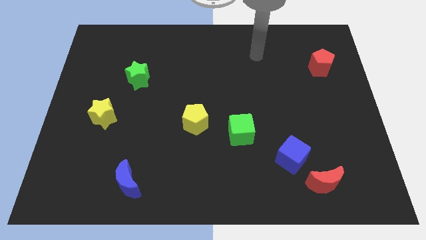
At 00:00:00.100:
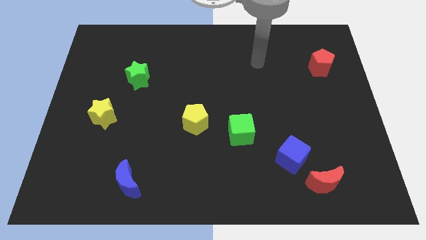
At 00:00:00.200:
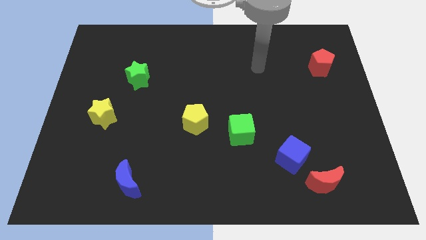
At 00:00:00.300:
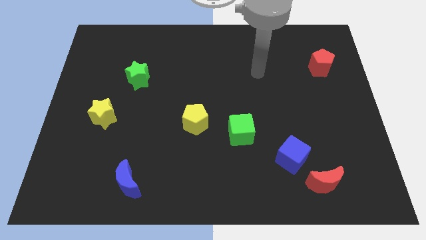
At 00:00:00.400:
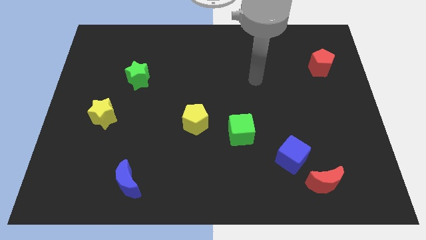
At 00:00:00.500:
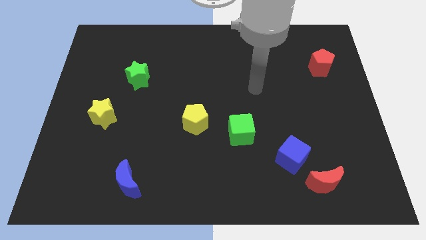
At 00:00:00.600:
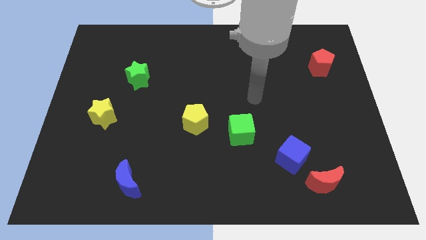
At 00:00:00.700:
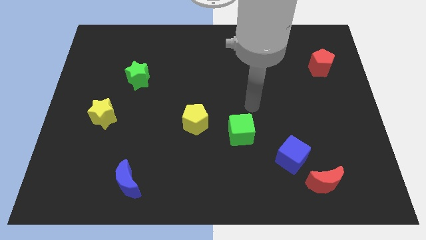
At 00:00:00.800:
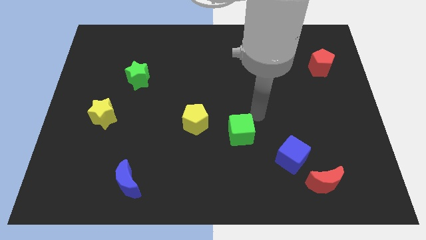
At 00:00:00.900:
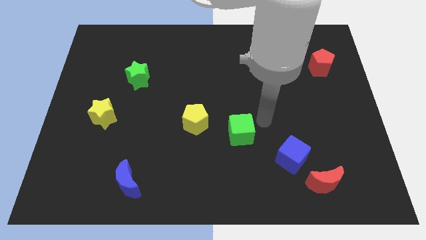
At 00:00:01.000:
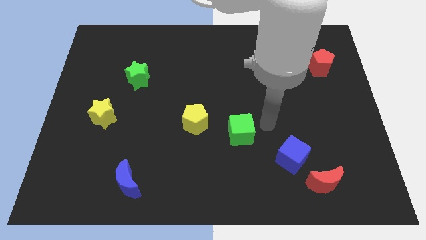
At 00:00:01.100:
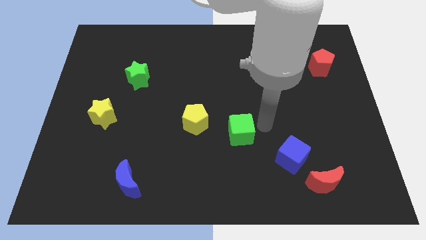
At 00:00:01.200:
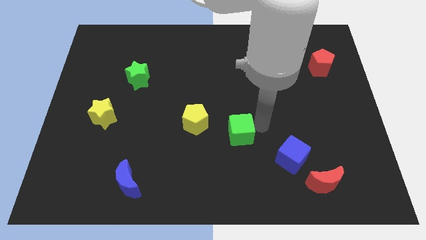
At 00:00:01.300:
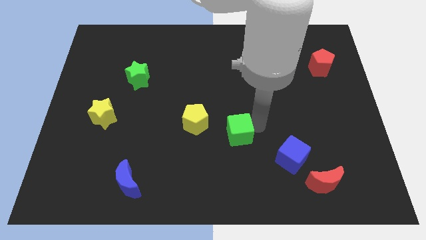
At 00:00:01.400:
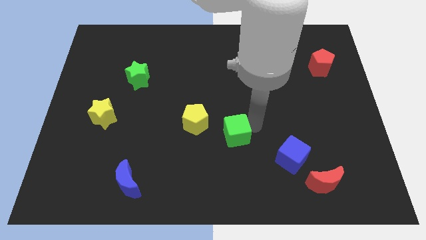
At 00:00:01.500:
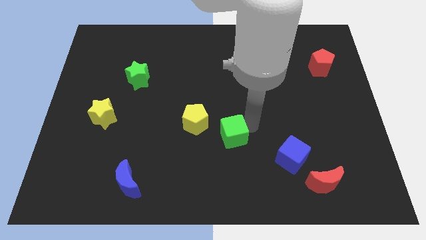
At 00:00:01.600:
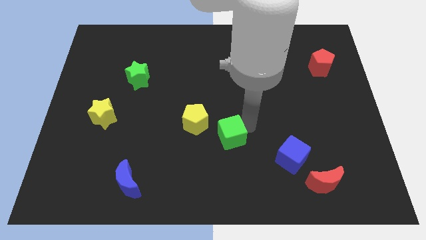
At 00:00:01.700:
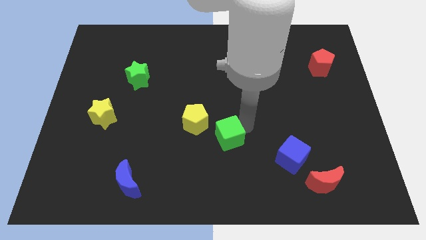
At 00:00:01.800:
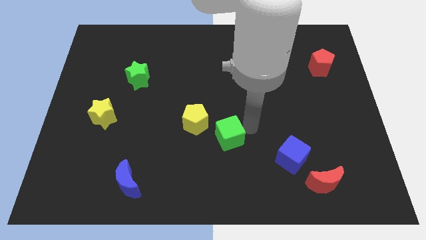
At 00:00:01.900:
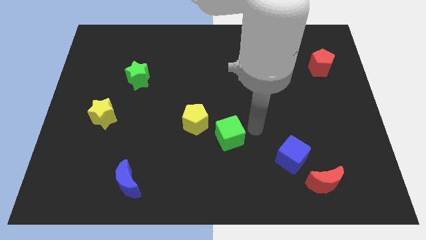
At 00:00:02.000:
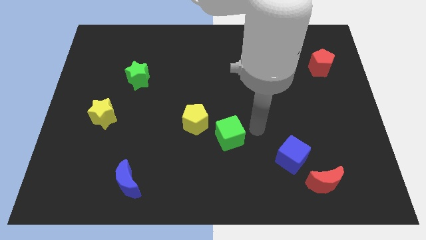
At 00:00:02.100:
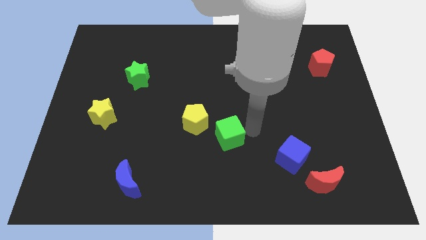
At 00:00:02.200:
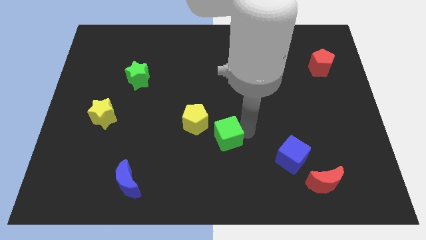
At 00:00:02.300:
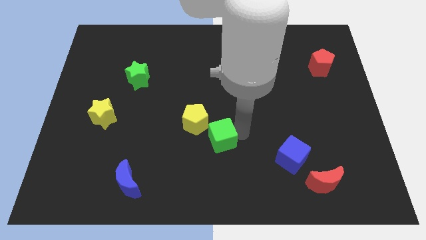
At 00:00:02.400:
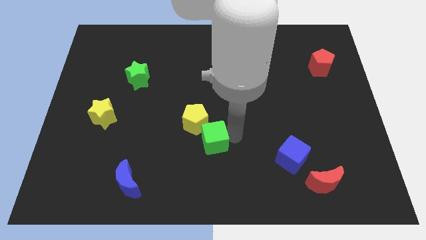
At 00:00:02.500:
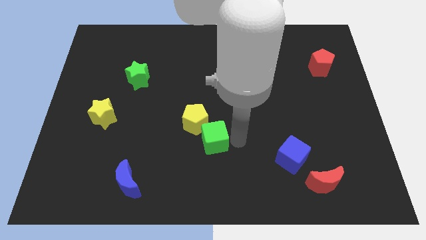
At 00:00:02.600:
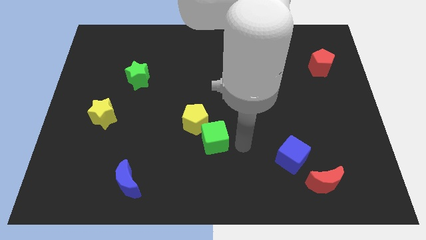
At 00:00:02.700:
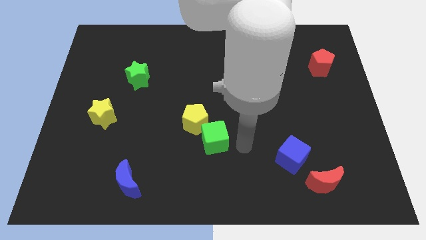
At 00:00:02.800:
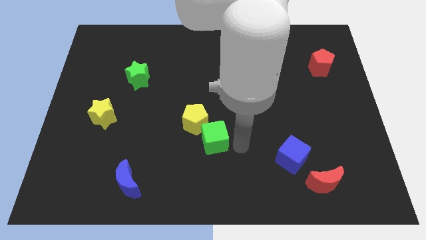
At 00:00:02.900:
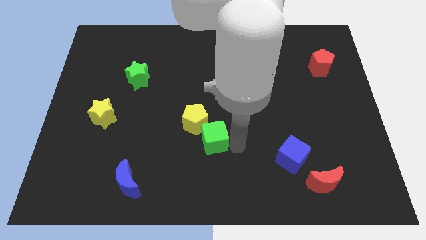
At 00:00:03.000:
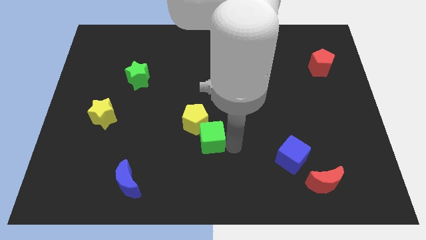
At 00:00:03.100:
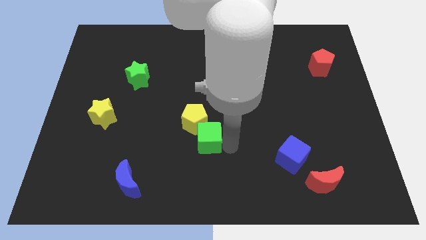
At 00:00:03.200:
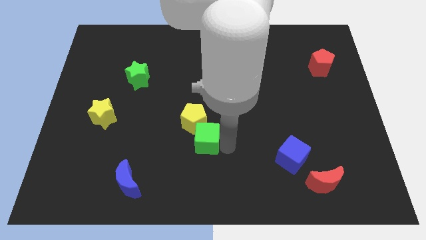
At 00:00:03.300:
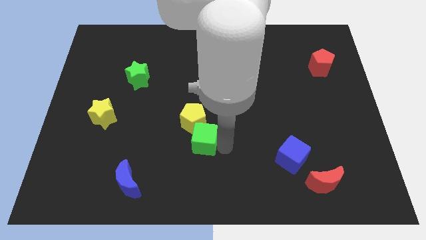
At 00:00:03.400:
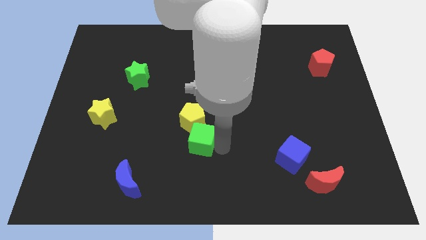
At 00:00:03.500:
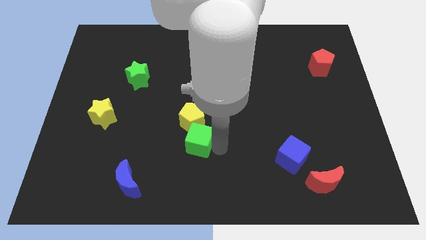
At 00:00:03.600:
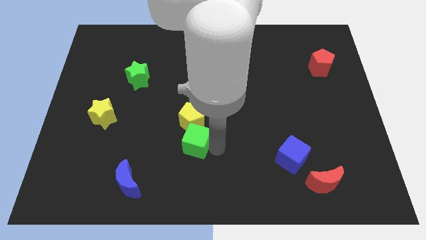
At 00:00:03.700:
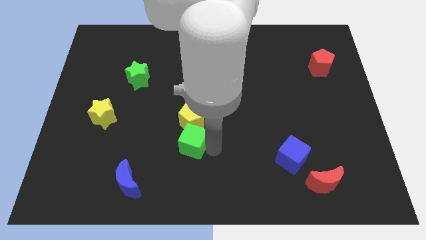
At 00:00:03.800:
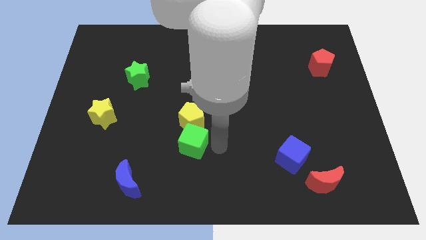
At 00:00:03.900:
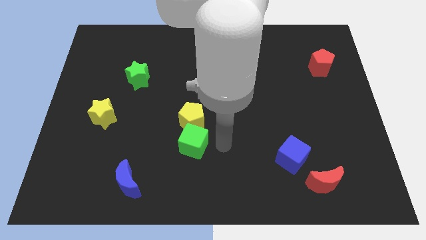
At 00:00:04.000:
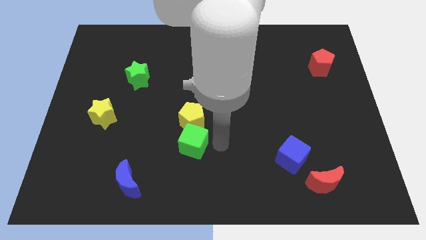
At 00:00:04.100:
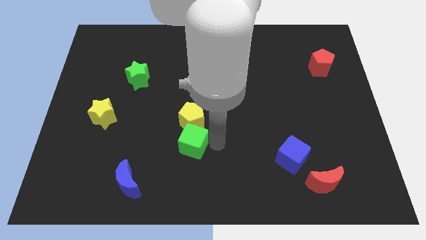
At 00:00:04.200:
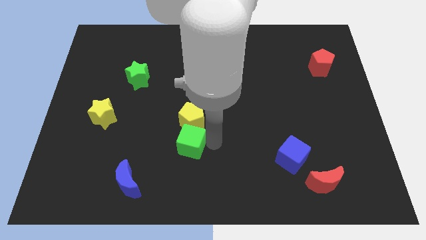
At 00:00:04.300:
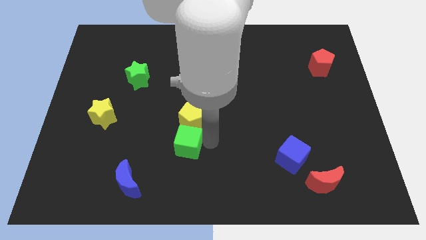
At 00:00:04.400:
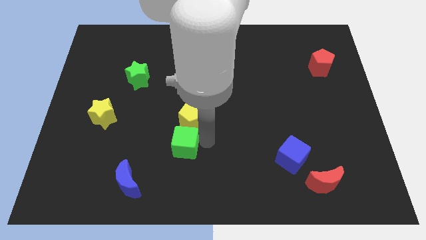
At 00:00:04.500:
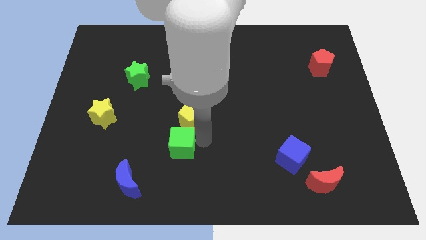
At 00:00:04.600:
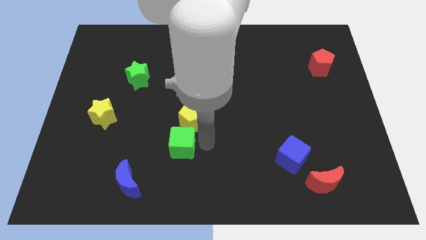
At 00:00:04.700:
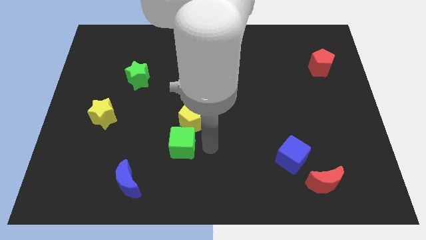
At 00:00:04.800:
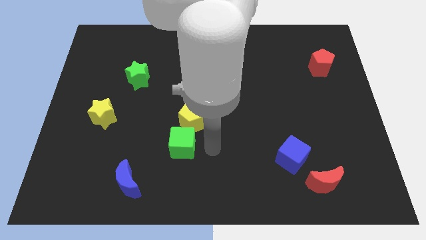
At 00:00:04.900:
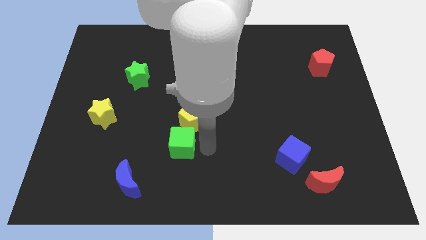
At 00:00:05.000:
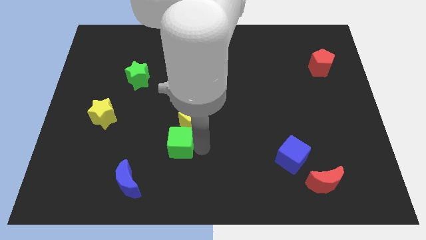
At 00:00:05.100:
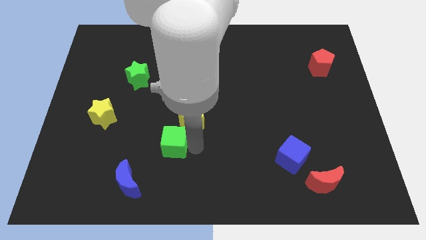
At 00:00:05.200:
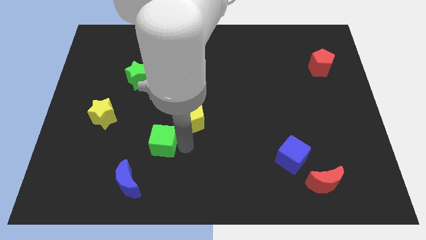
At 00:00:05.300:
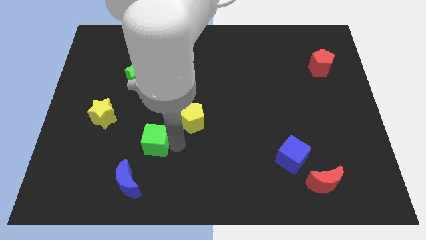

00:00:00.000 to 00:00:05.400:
slide the green cube above the blue moon

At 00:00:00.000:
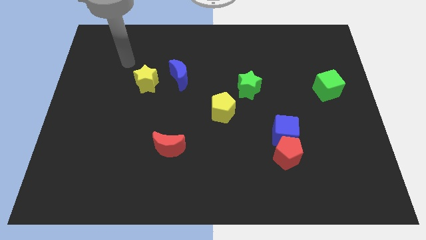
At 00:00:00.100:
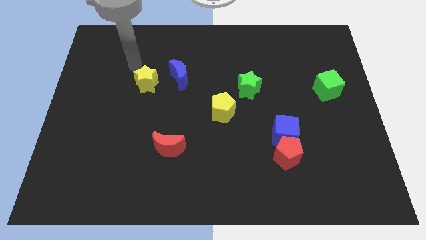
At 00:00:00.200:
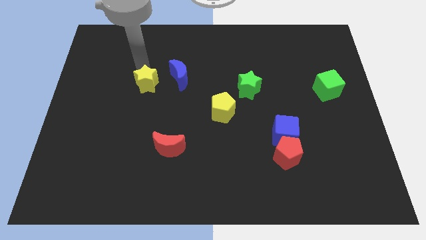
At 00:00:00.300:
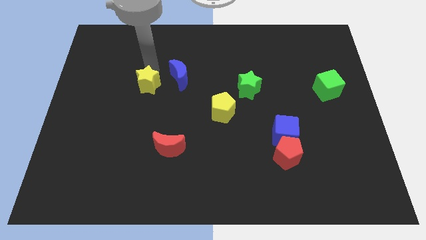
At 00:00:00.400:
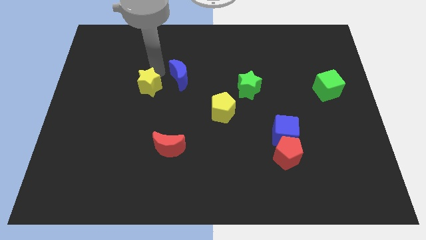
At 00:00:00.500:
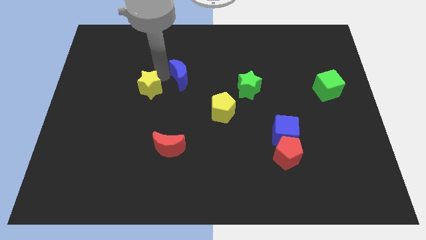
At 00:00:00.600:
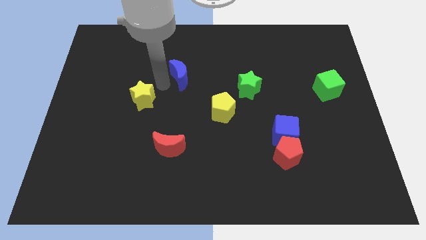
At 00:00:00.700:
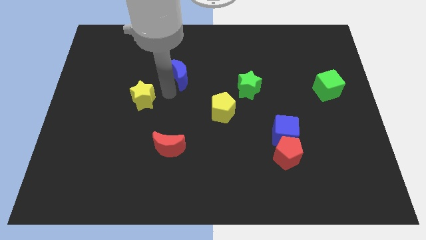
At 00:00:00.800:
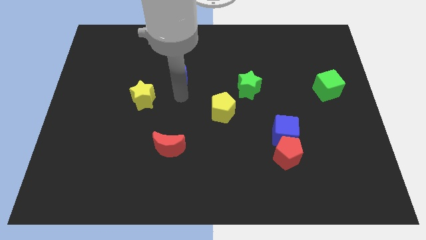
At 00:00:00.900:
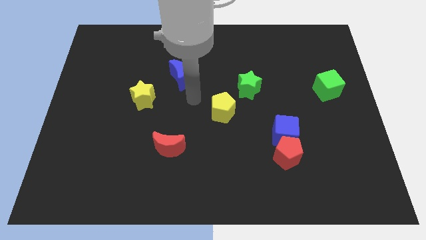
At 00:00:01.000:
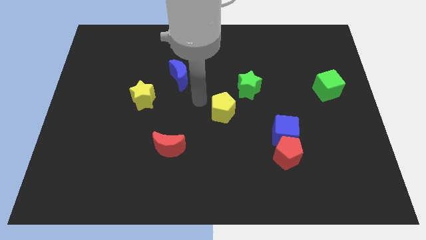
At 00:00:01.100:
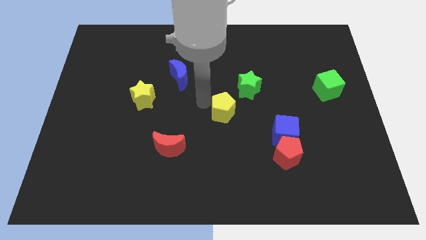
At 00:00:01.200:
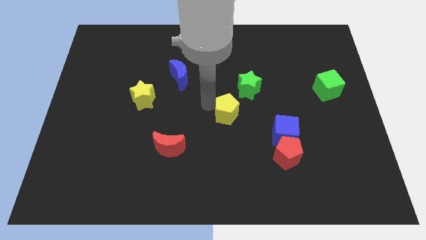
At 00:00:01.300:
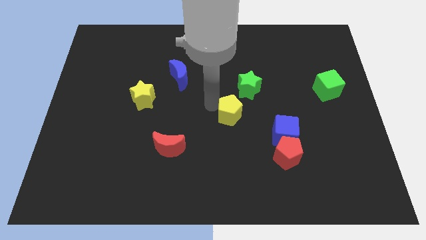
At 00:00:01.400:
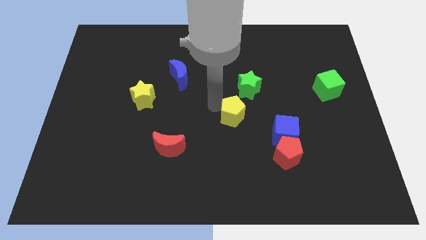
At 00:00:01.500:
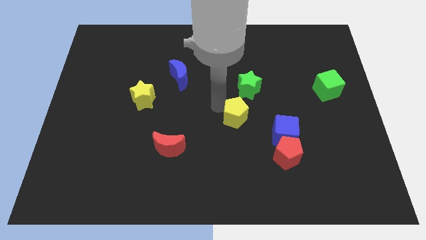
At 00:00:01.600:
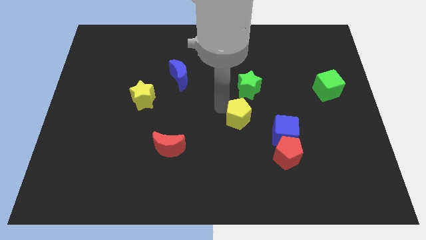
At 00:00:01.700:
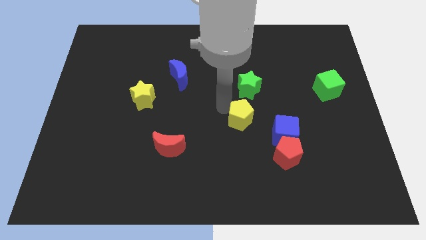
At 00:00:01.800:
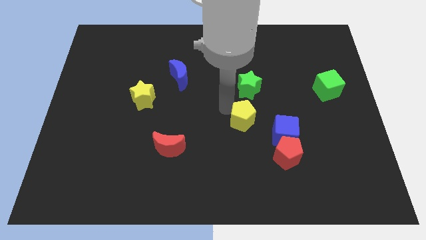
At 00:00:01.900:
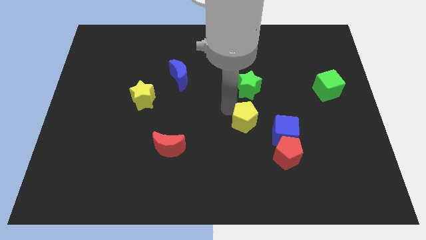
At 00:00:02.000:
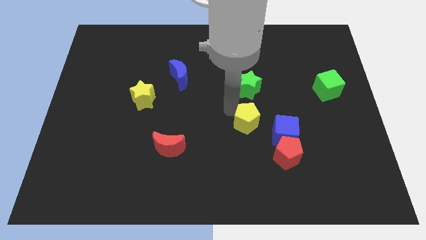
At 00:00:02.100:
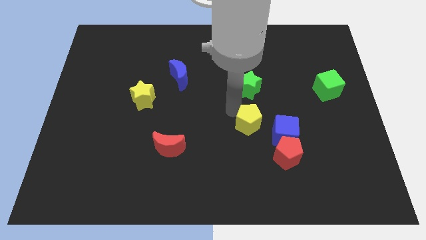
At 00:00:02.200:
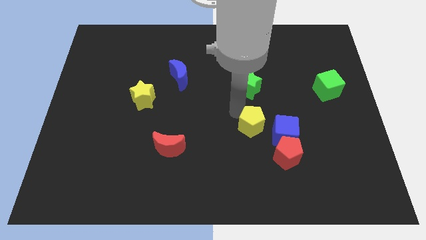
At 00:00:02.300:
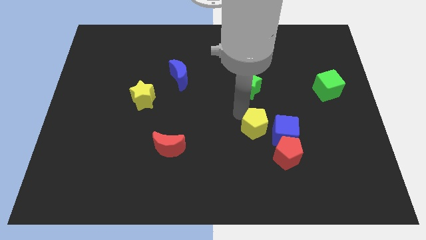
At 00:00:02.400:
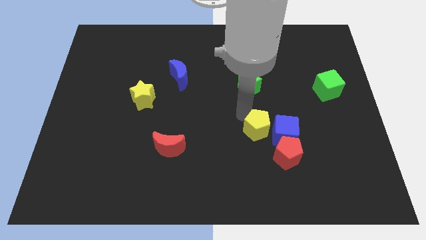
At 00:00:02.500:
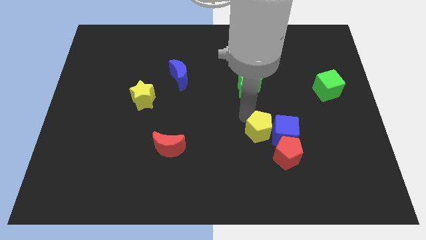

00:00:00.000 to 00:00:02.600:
push the yellow pentagon diagonally down and to the left of the blue cube
